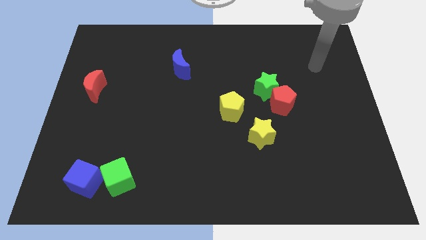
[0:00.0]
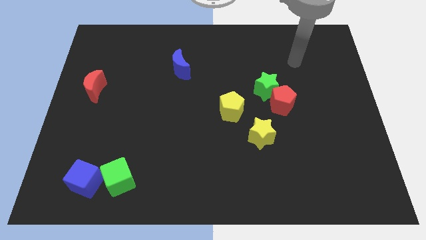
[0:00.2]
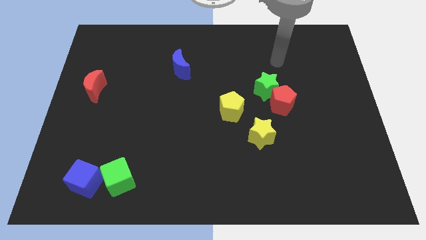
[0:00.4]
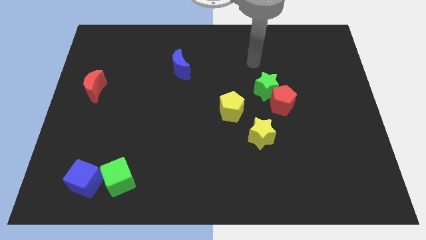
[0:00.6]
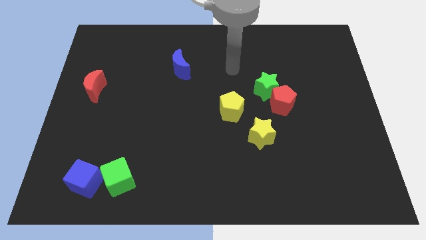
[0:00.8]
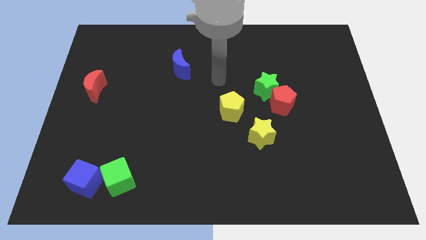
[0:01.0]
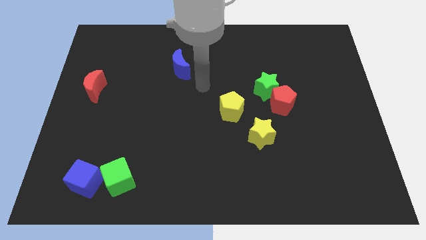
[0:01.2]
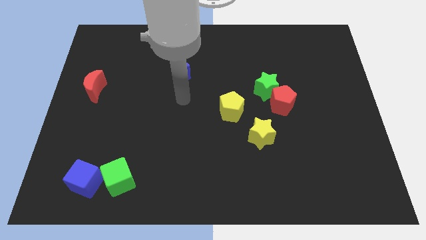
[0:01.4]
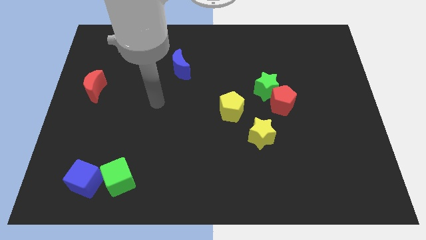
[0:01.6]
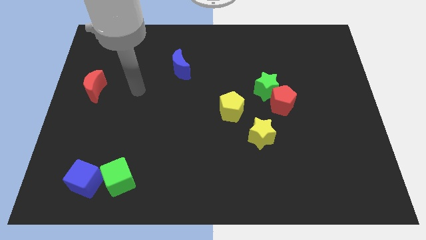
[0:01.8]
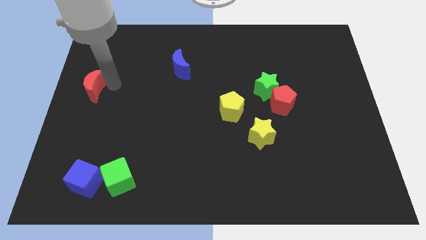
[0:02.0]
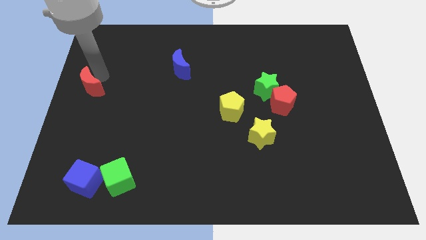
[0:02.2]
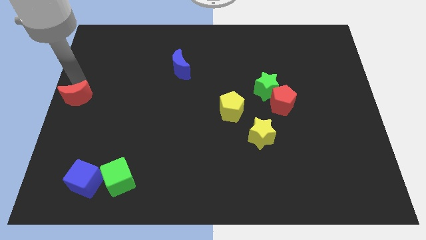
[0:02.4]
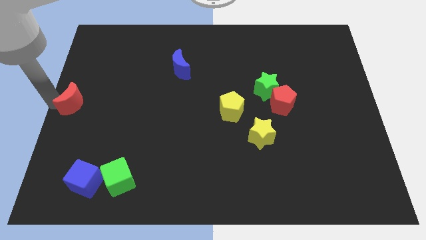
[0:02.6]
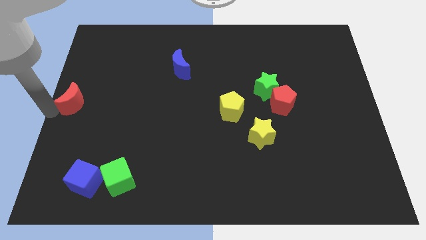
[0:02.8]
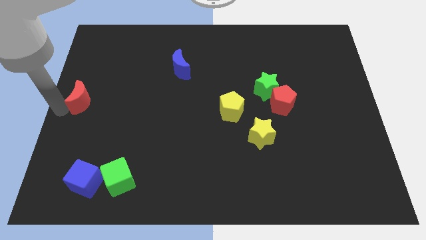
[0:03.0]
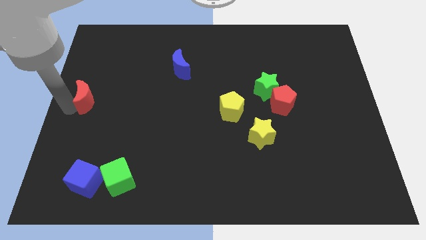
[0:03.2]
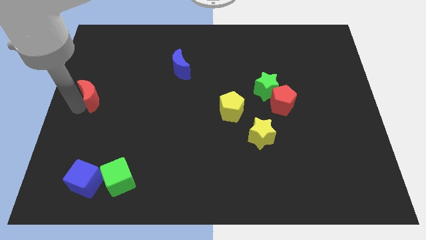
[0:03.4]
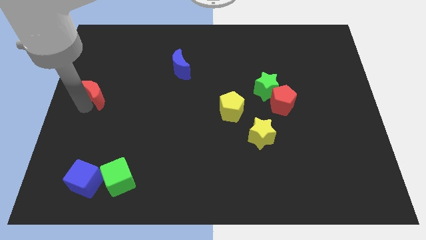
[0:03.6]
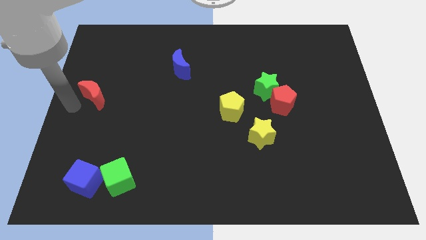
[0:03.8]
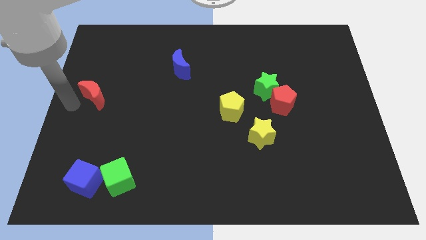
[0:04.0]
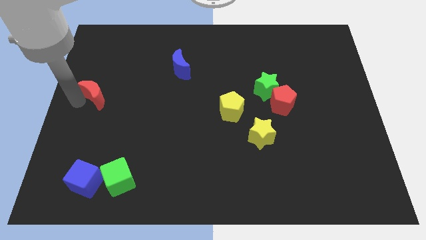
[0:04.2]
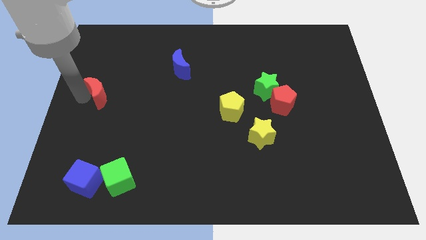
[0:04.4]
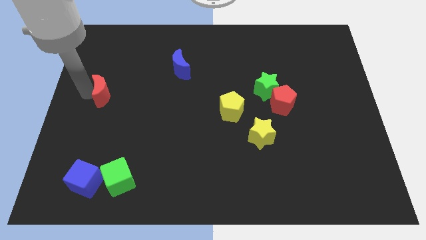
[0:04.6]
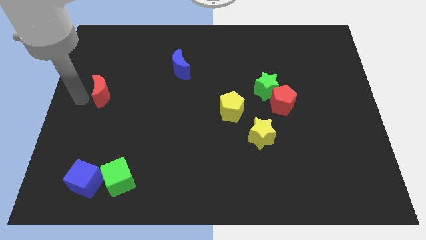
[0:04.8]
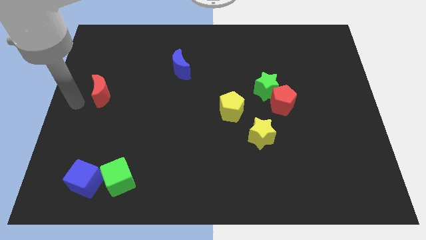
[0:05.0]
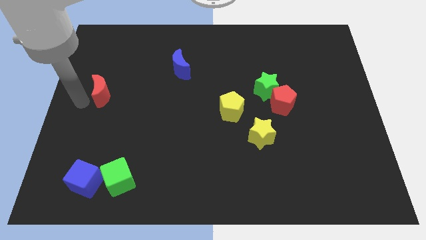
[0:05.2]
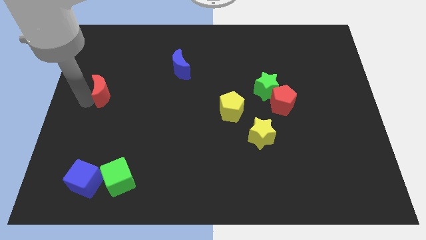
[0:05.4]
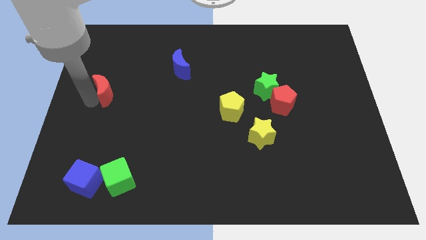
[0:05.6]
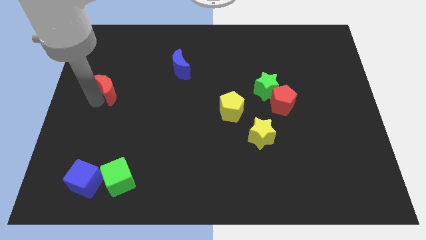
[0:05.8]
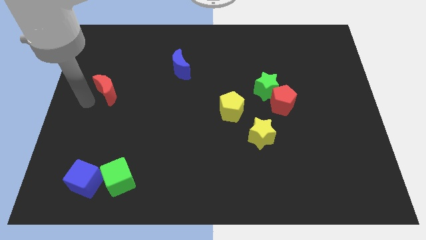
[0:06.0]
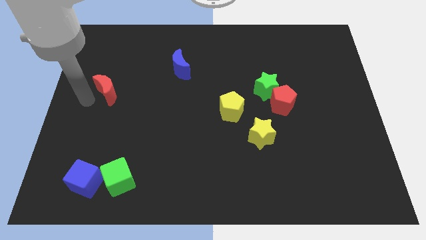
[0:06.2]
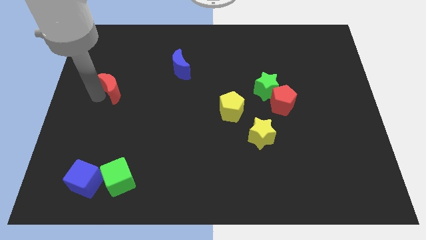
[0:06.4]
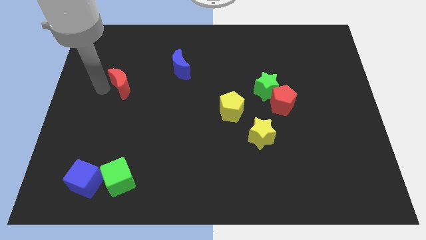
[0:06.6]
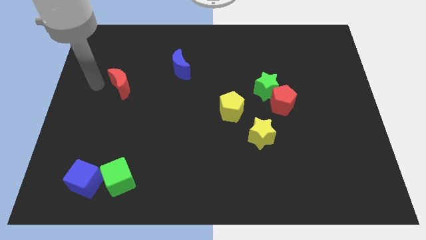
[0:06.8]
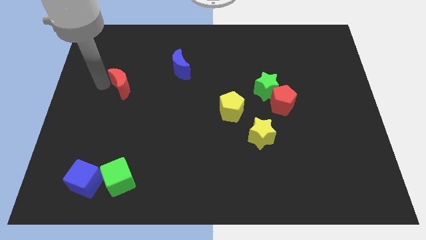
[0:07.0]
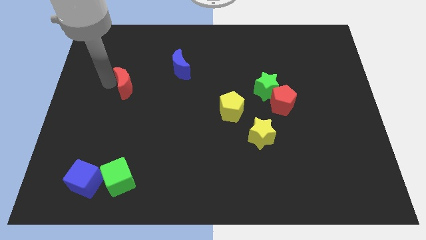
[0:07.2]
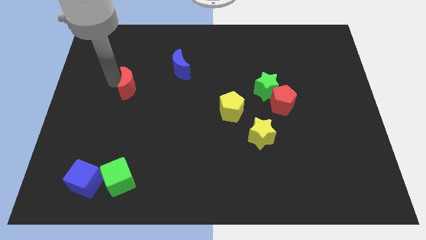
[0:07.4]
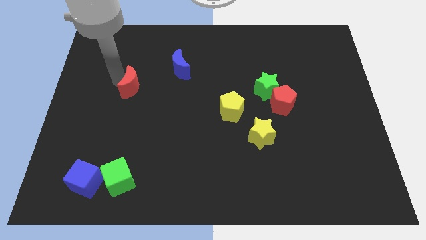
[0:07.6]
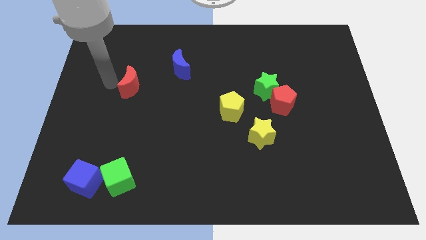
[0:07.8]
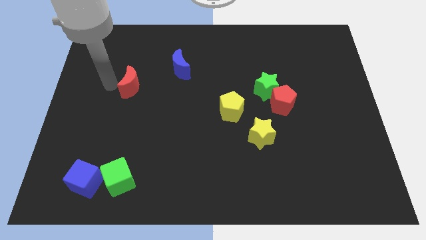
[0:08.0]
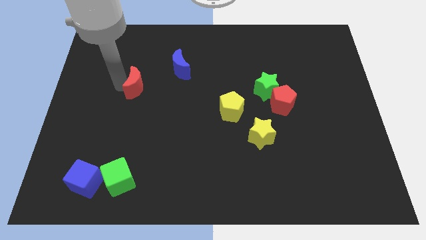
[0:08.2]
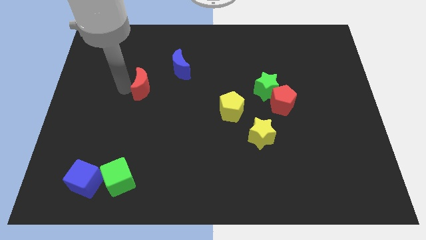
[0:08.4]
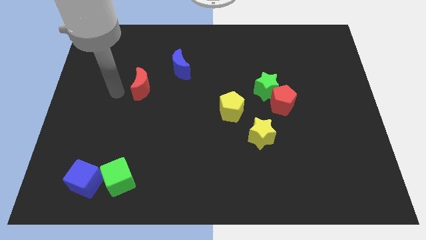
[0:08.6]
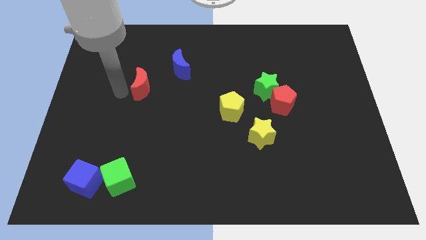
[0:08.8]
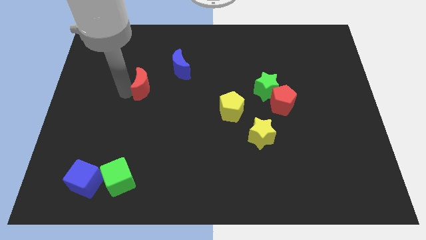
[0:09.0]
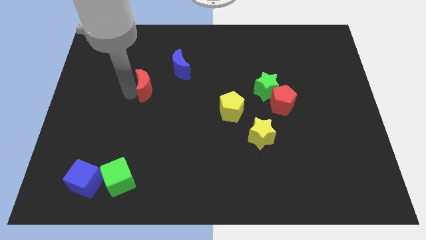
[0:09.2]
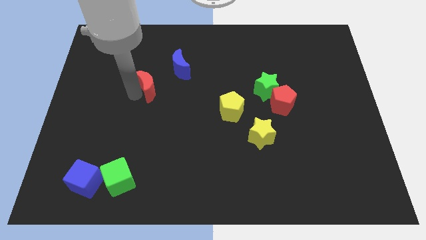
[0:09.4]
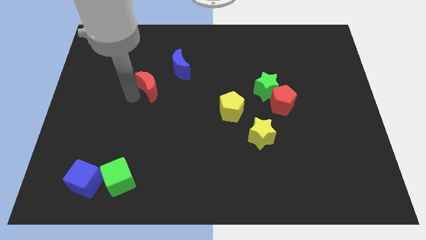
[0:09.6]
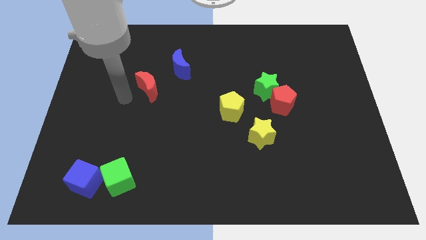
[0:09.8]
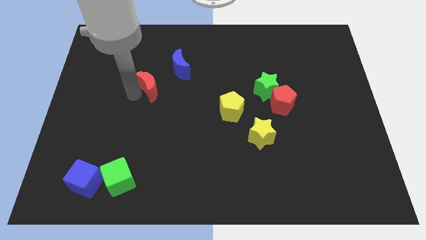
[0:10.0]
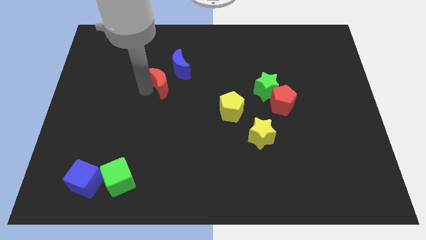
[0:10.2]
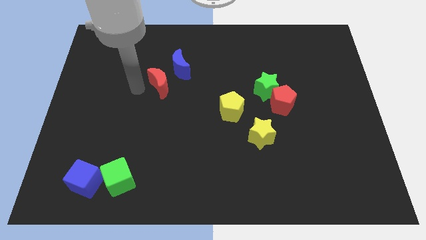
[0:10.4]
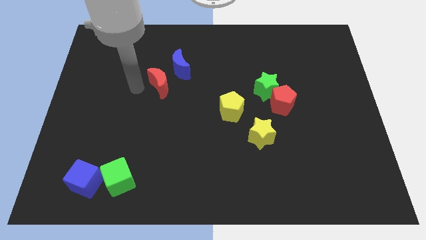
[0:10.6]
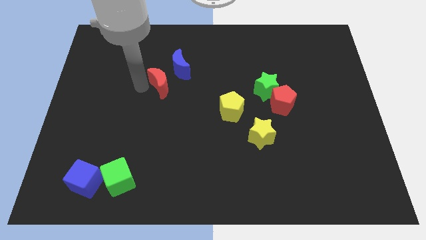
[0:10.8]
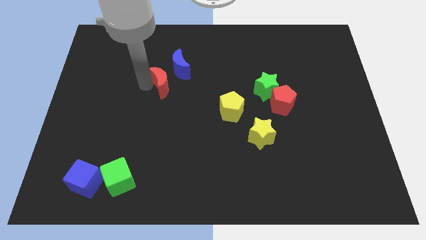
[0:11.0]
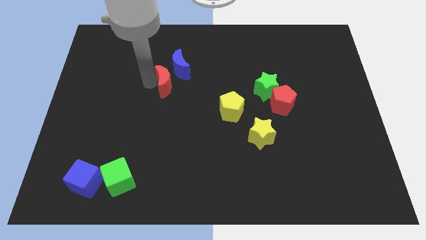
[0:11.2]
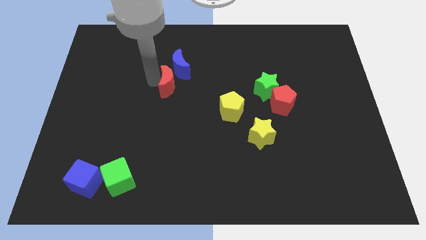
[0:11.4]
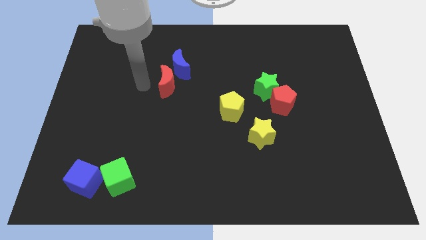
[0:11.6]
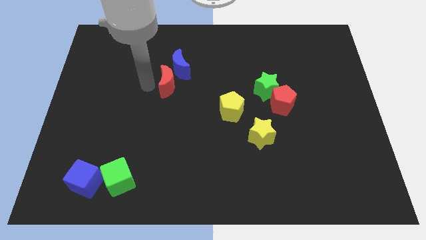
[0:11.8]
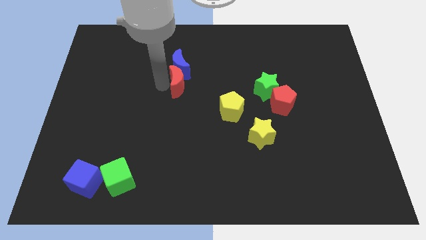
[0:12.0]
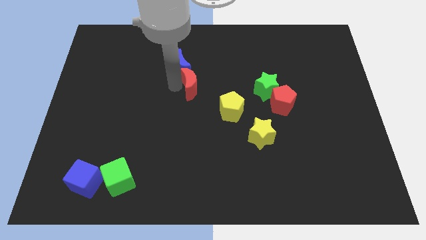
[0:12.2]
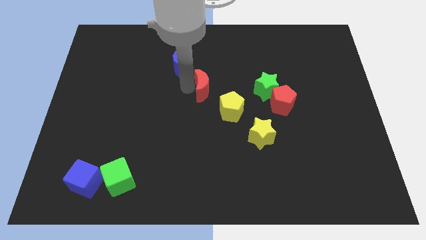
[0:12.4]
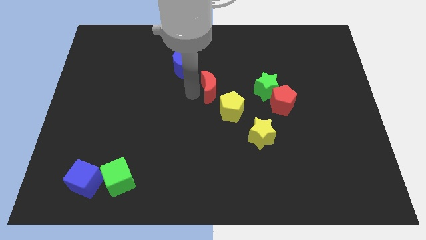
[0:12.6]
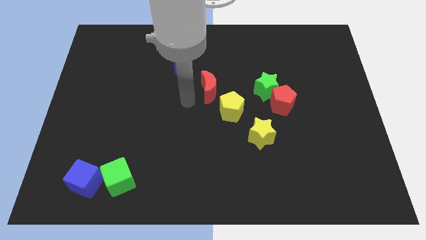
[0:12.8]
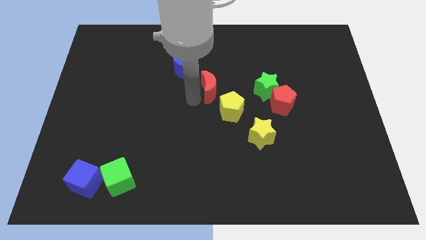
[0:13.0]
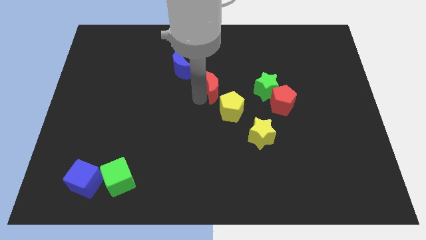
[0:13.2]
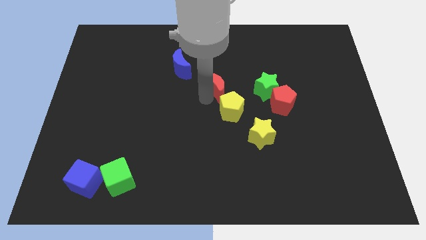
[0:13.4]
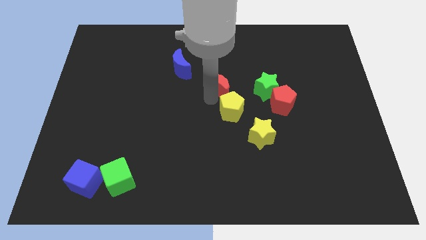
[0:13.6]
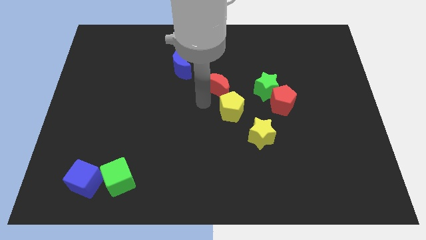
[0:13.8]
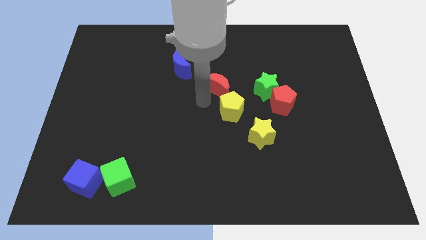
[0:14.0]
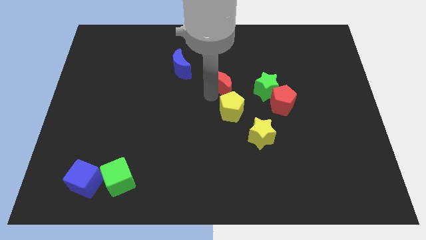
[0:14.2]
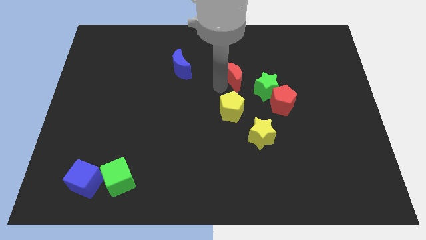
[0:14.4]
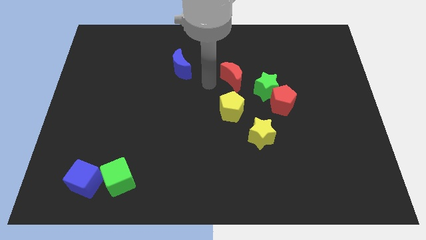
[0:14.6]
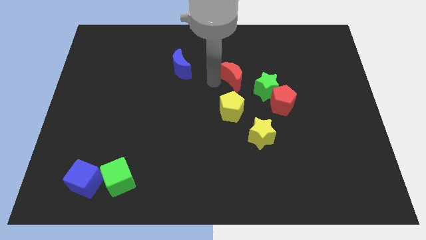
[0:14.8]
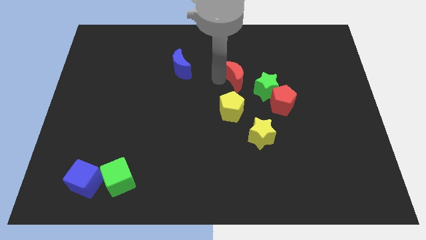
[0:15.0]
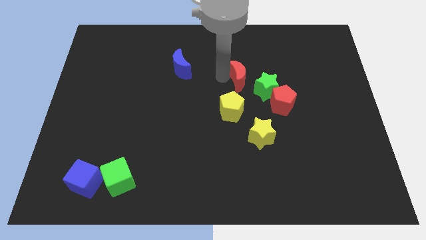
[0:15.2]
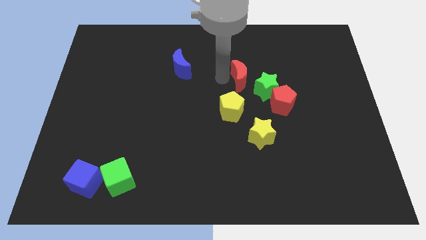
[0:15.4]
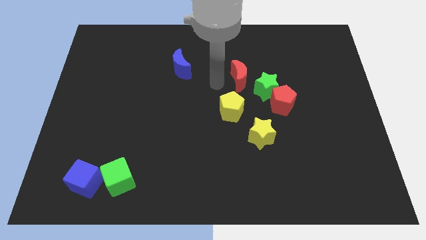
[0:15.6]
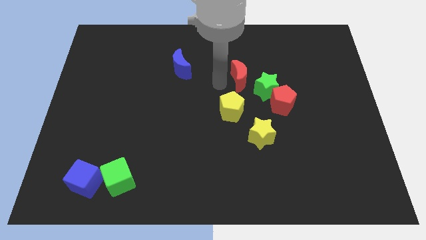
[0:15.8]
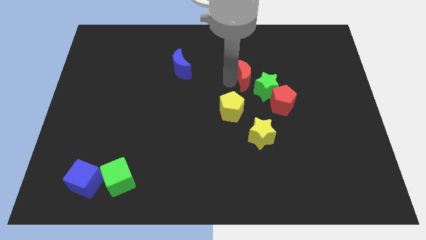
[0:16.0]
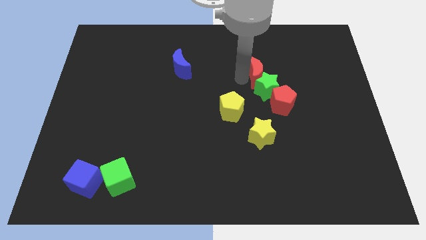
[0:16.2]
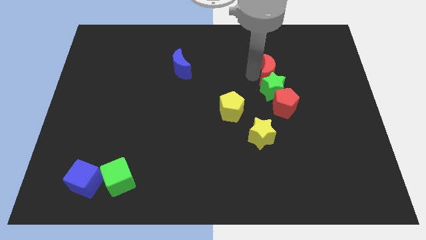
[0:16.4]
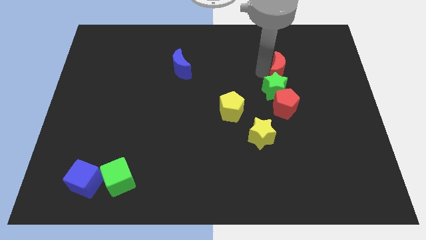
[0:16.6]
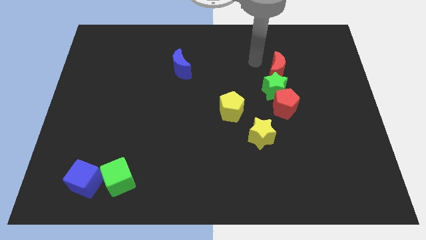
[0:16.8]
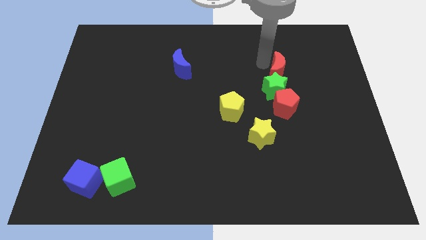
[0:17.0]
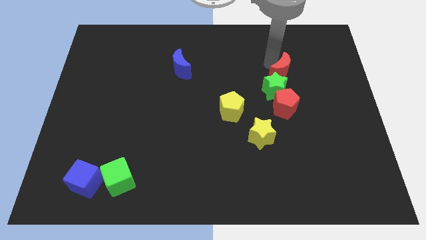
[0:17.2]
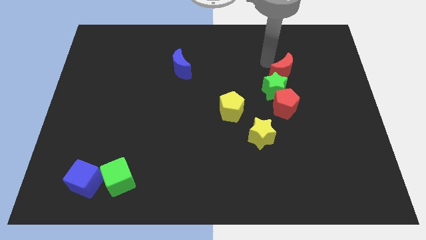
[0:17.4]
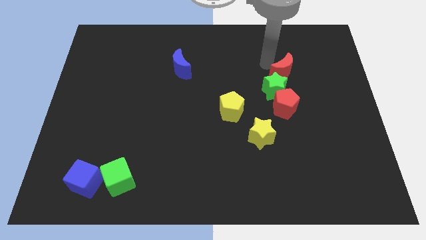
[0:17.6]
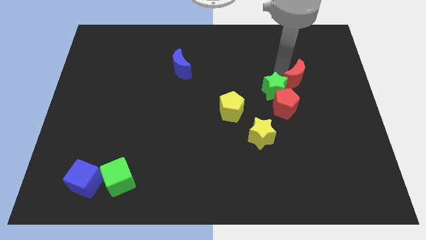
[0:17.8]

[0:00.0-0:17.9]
slide the red moon to the right of the green star
